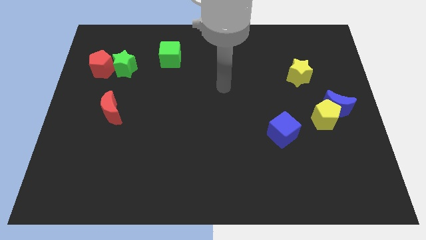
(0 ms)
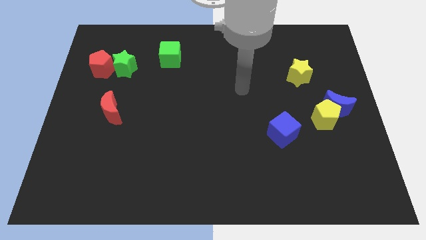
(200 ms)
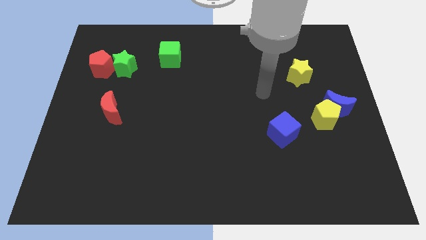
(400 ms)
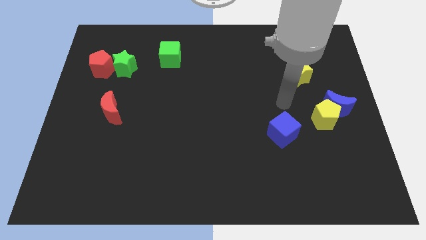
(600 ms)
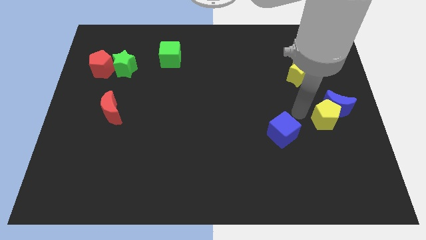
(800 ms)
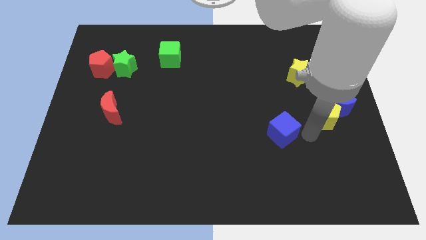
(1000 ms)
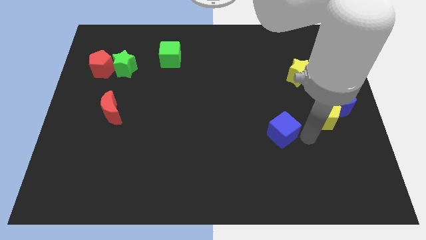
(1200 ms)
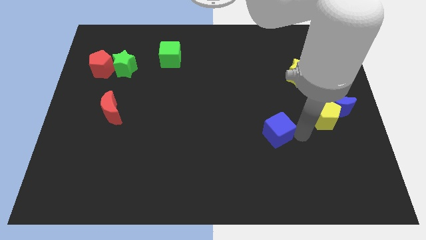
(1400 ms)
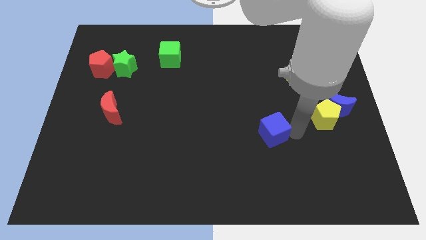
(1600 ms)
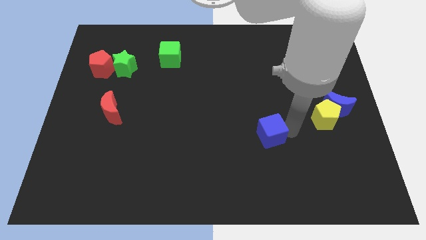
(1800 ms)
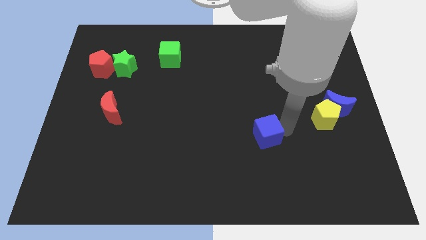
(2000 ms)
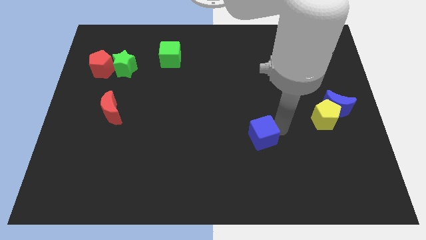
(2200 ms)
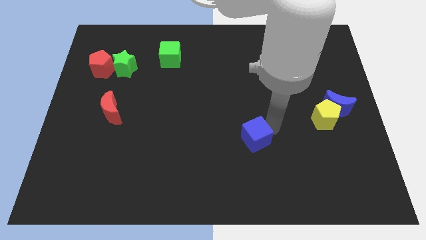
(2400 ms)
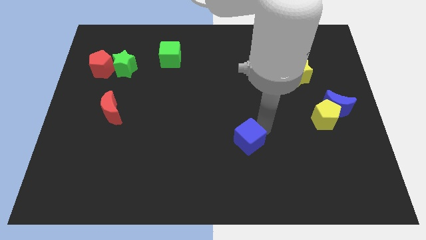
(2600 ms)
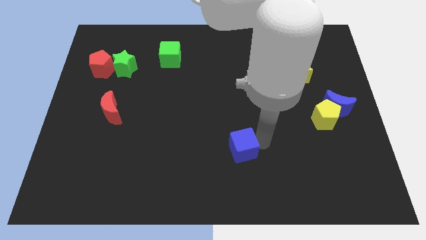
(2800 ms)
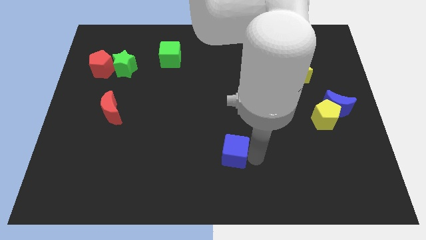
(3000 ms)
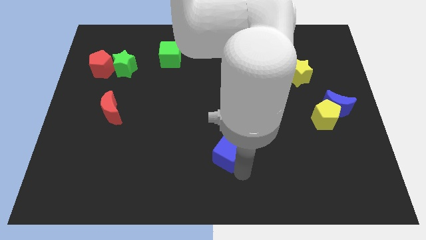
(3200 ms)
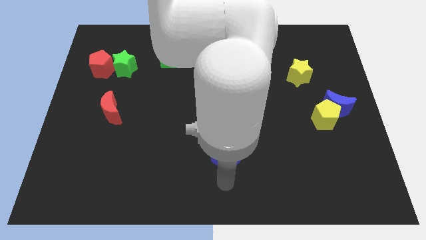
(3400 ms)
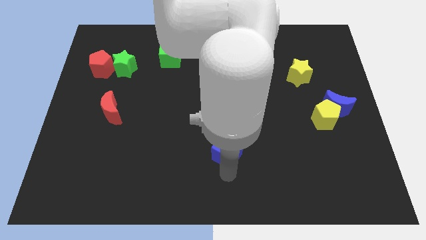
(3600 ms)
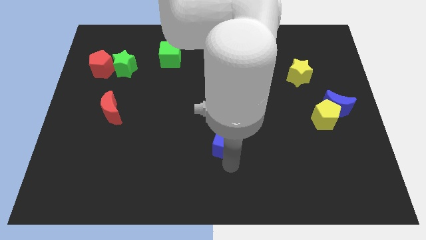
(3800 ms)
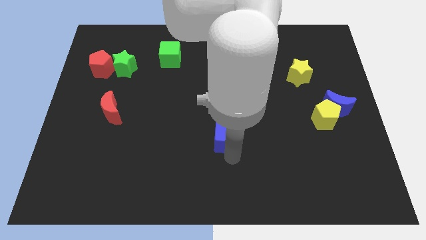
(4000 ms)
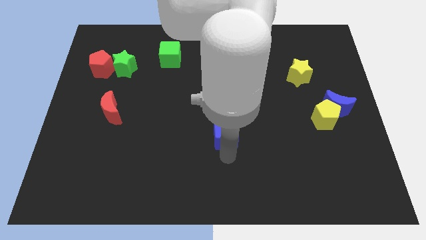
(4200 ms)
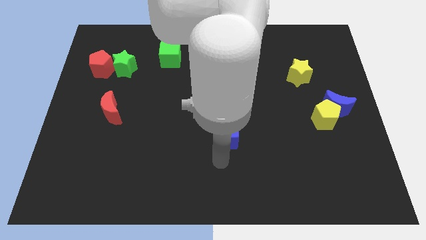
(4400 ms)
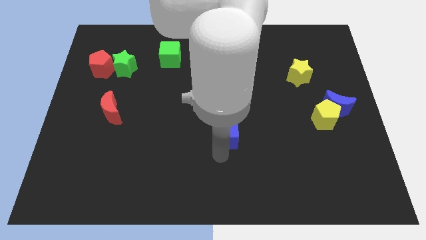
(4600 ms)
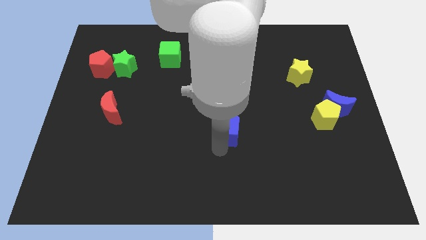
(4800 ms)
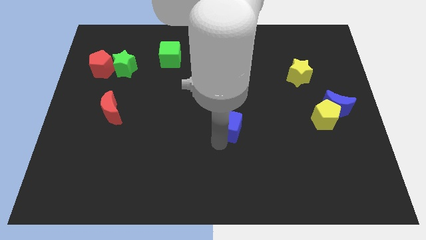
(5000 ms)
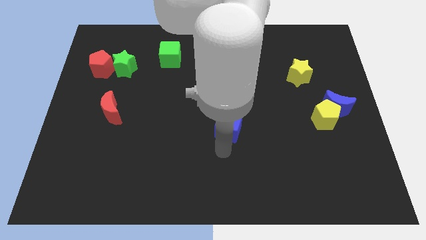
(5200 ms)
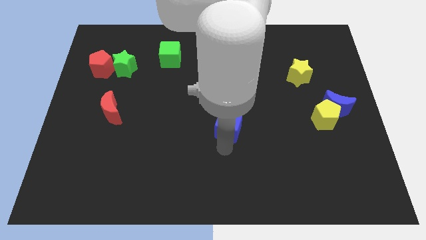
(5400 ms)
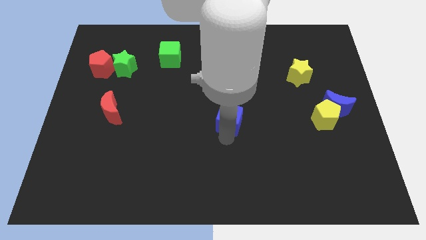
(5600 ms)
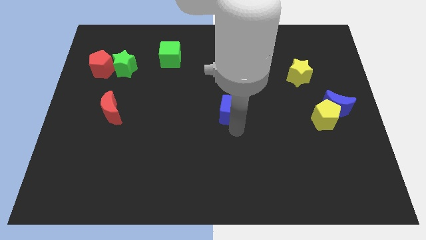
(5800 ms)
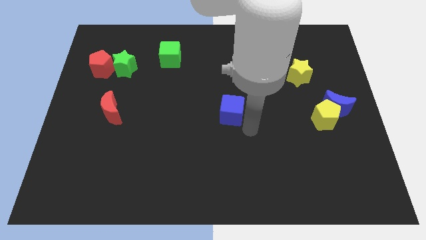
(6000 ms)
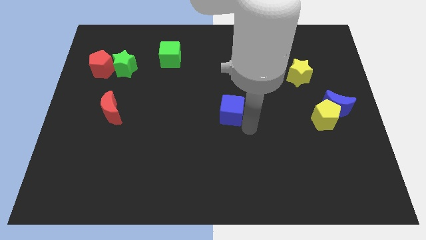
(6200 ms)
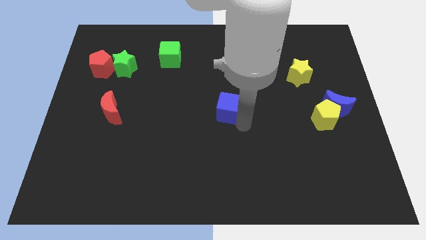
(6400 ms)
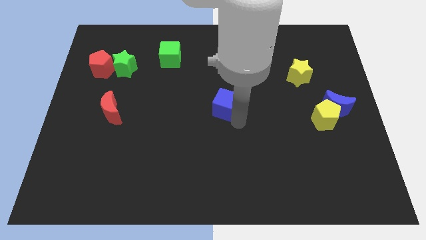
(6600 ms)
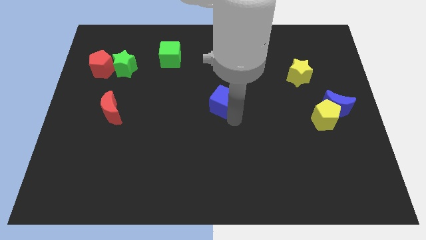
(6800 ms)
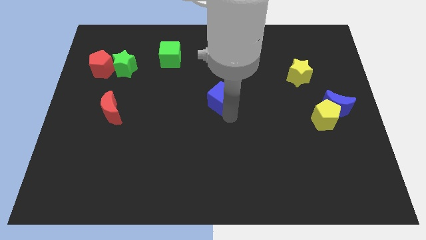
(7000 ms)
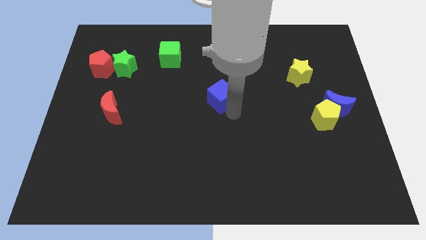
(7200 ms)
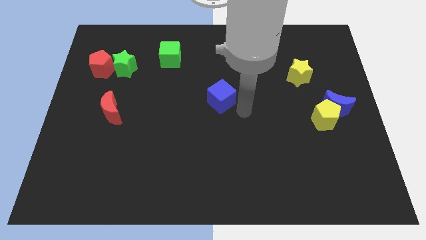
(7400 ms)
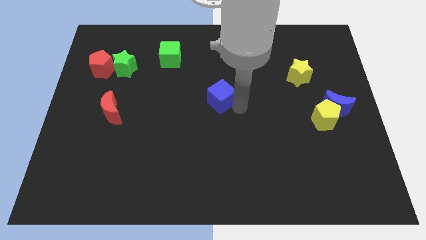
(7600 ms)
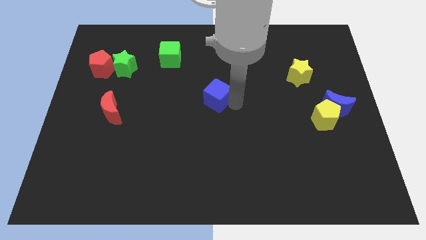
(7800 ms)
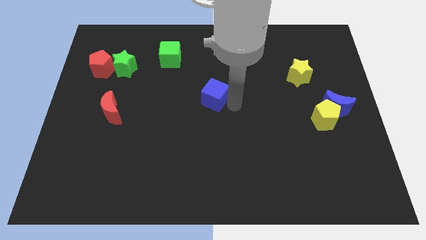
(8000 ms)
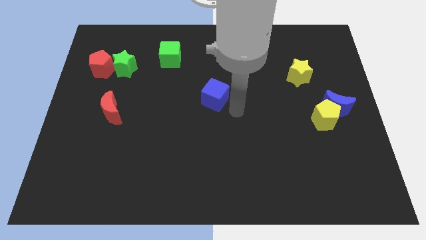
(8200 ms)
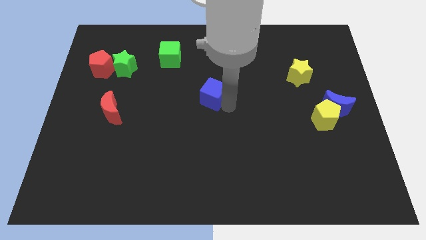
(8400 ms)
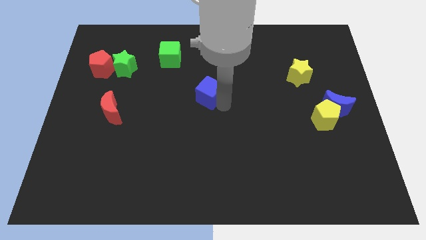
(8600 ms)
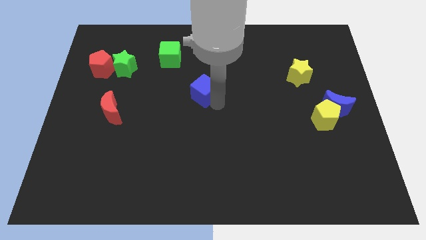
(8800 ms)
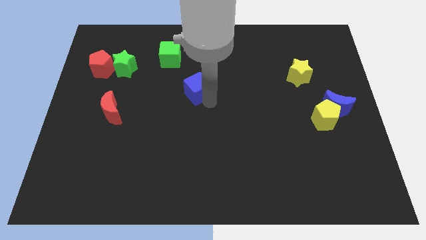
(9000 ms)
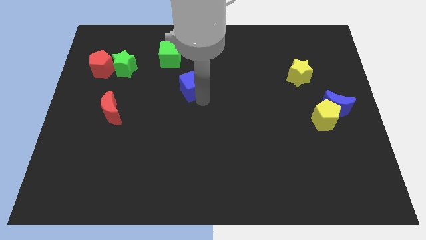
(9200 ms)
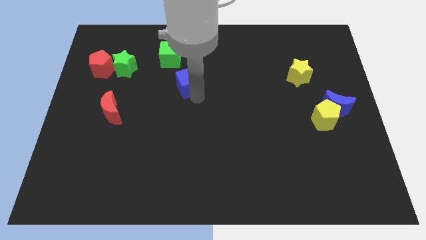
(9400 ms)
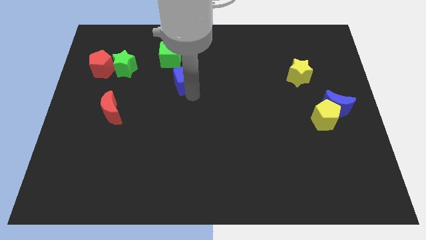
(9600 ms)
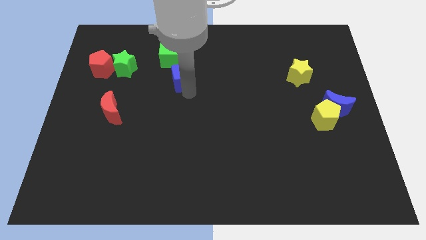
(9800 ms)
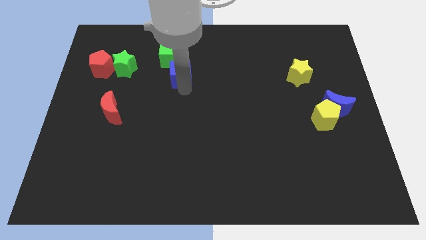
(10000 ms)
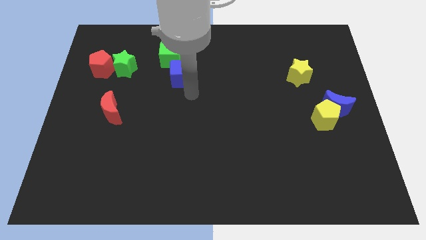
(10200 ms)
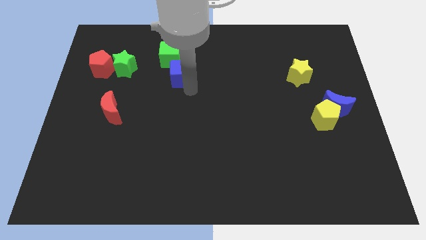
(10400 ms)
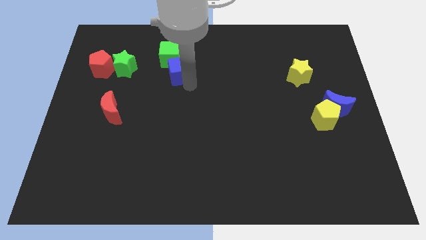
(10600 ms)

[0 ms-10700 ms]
slide the blue cube next to the green cube

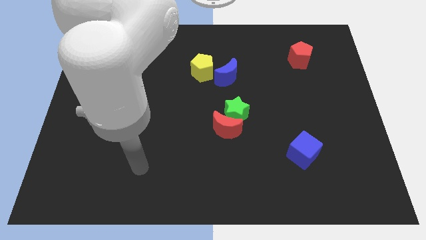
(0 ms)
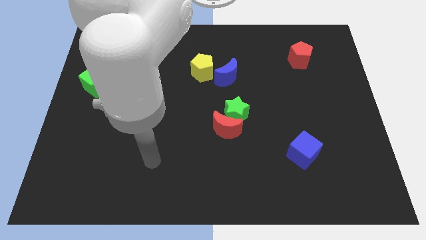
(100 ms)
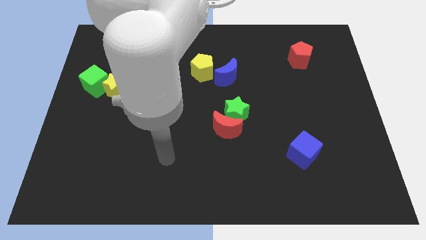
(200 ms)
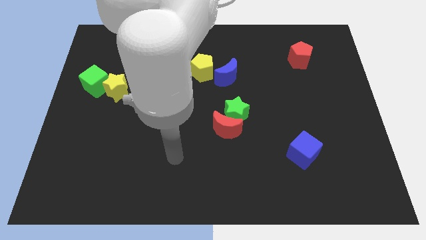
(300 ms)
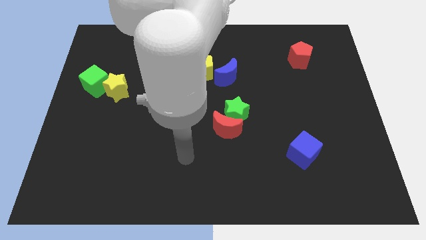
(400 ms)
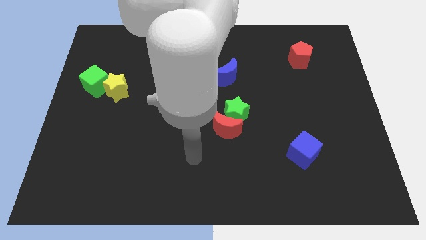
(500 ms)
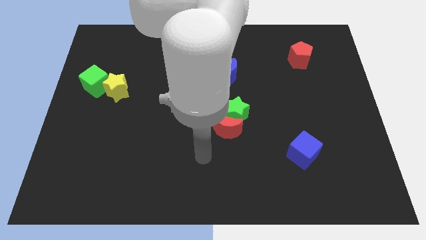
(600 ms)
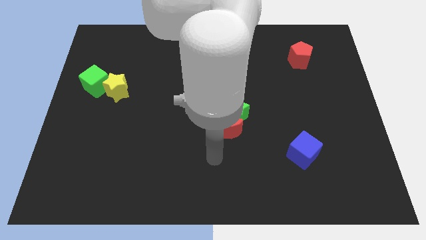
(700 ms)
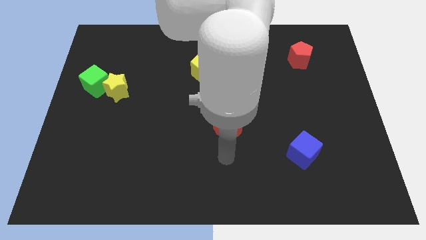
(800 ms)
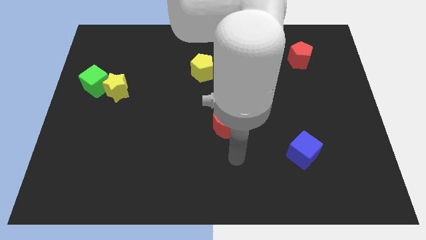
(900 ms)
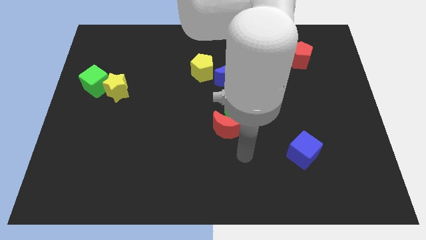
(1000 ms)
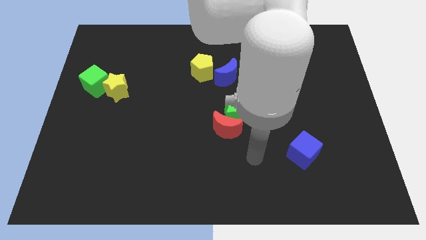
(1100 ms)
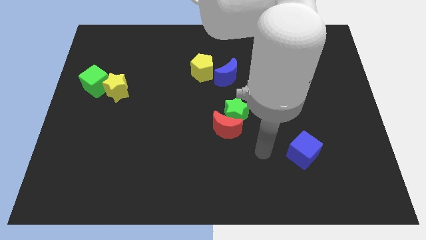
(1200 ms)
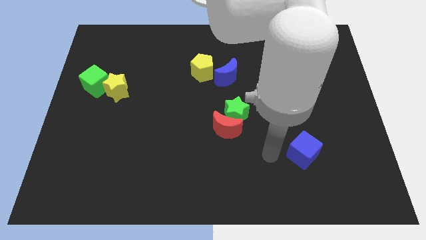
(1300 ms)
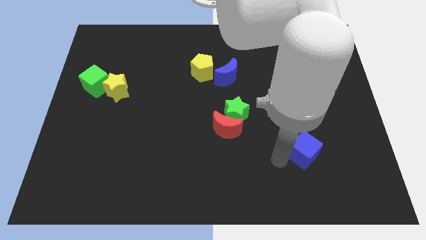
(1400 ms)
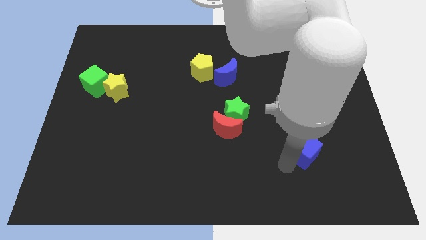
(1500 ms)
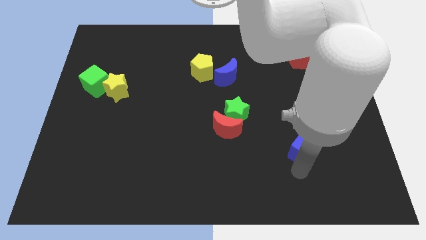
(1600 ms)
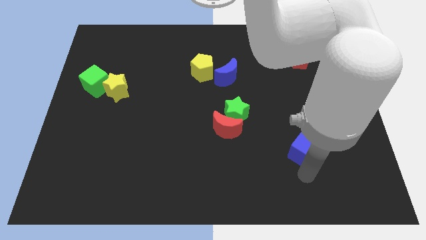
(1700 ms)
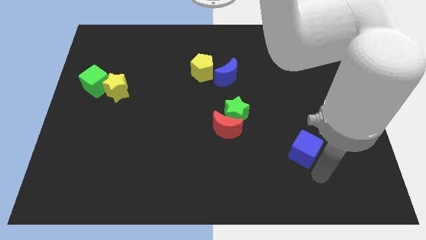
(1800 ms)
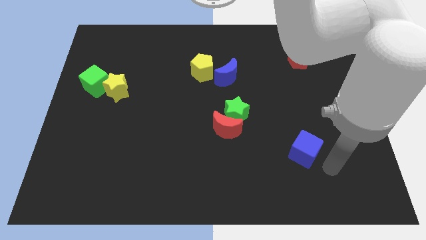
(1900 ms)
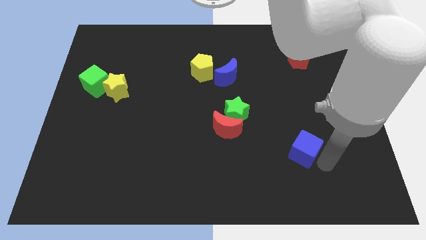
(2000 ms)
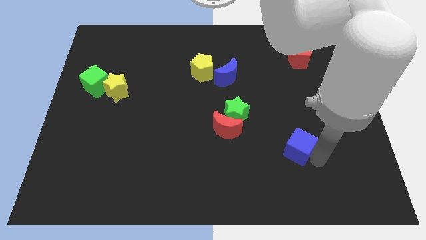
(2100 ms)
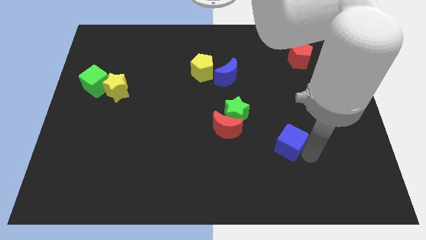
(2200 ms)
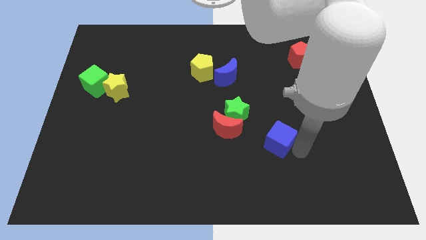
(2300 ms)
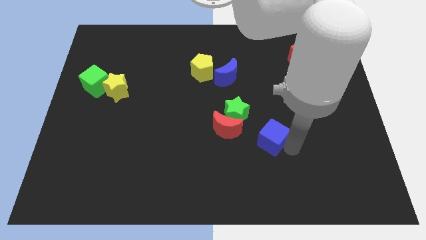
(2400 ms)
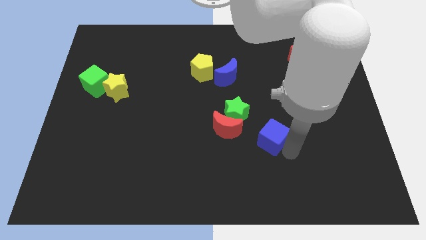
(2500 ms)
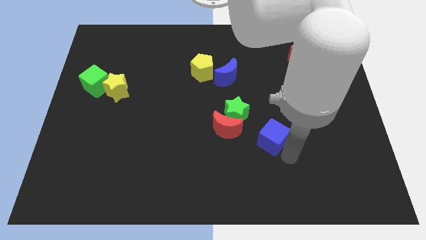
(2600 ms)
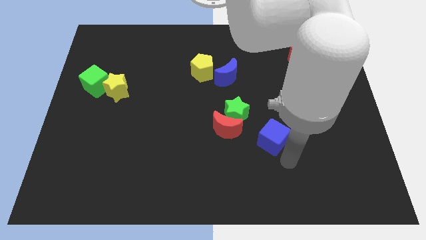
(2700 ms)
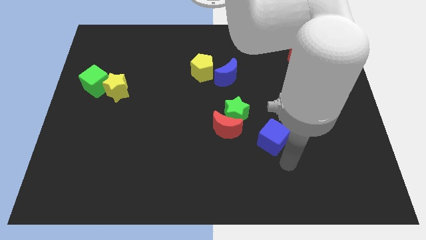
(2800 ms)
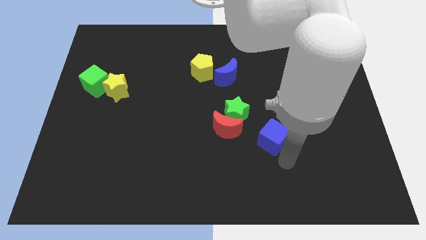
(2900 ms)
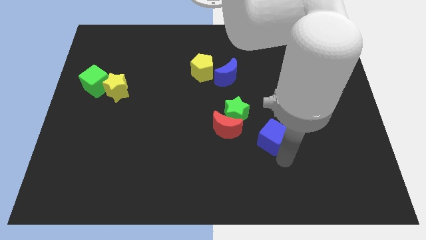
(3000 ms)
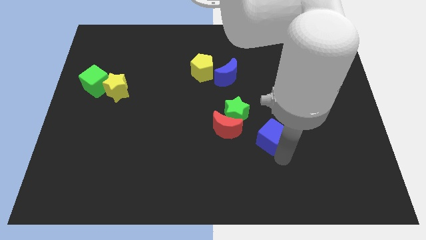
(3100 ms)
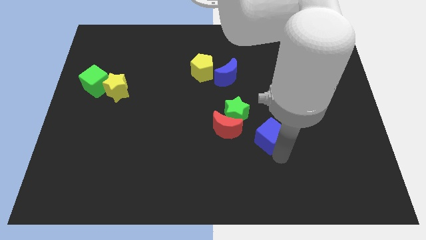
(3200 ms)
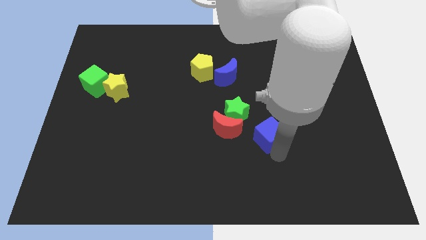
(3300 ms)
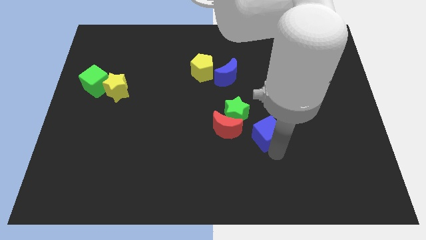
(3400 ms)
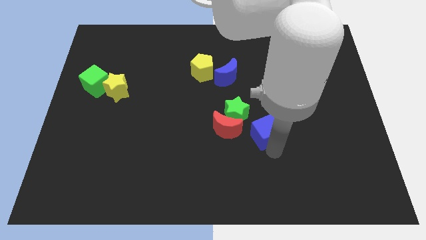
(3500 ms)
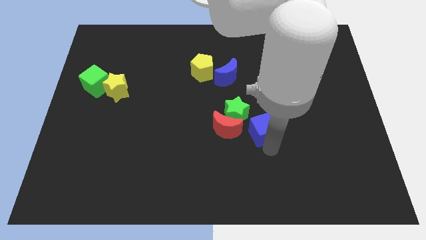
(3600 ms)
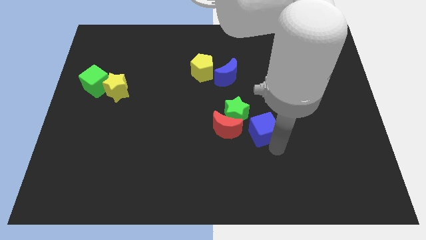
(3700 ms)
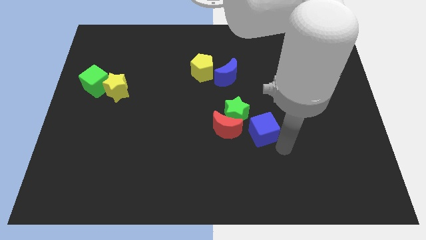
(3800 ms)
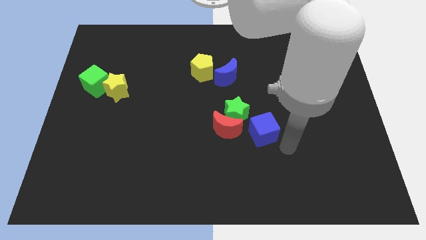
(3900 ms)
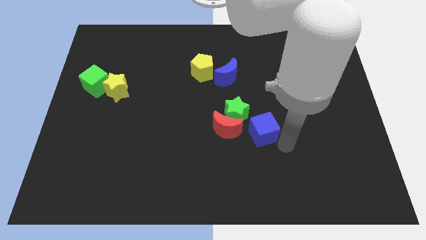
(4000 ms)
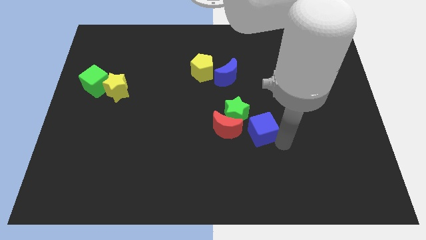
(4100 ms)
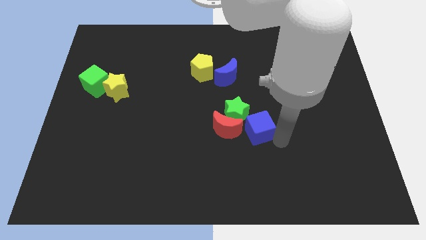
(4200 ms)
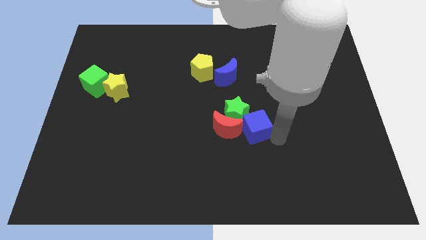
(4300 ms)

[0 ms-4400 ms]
push the blue cube towards the green star
